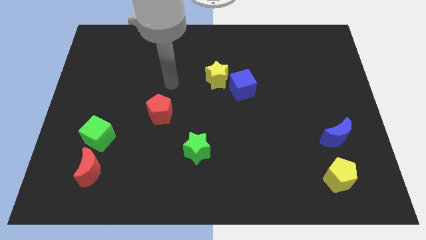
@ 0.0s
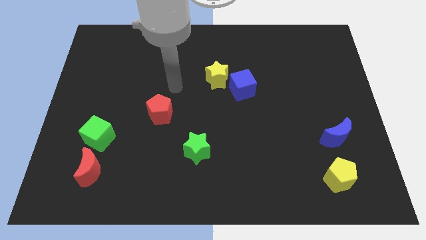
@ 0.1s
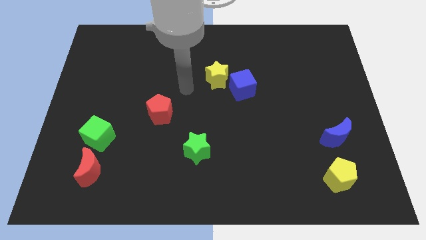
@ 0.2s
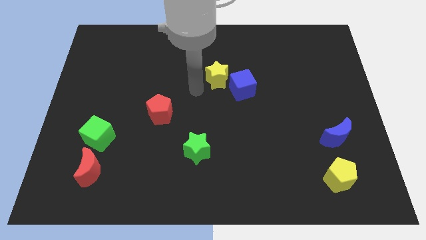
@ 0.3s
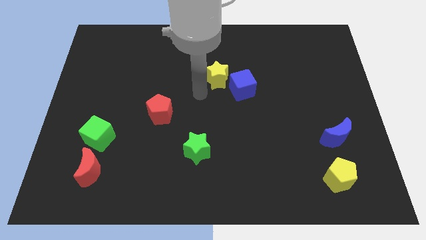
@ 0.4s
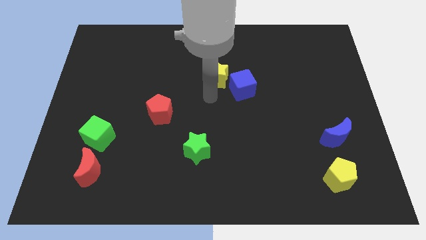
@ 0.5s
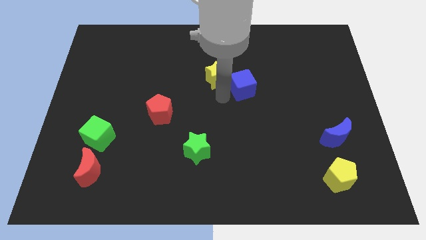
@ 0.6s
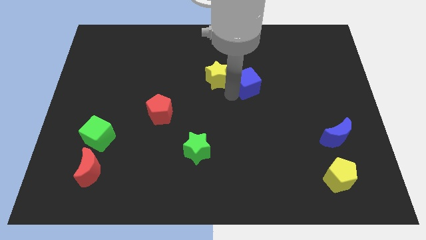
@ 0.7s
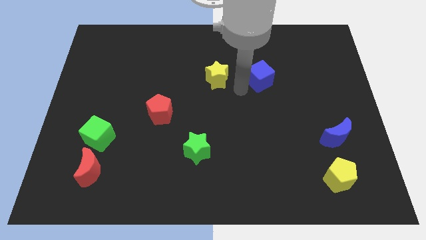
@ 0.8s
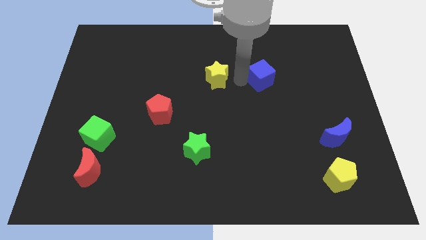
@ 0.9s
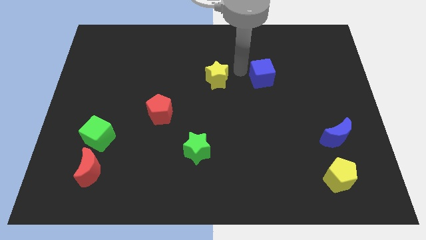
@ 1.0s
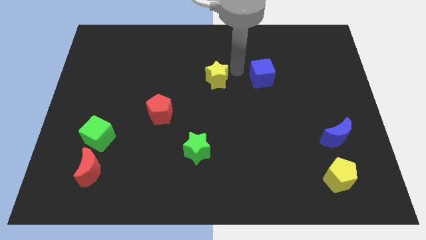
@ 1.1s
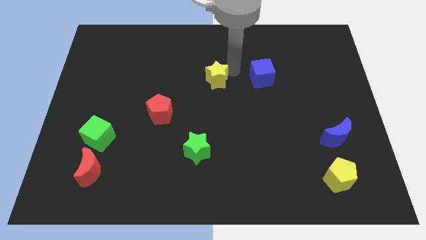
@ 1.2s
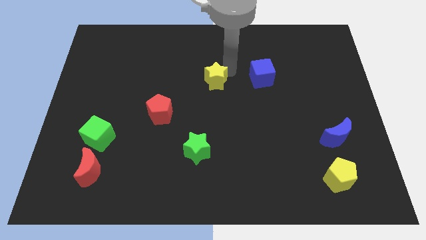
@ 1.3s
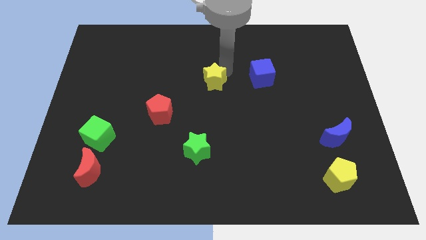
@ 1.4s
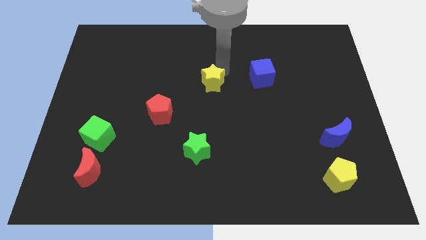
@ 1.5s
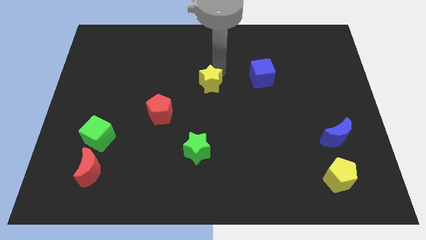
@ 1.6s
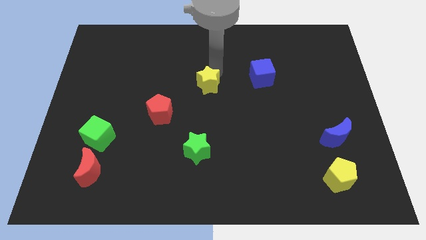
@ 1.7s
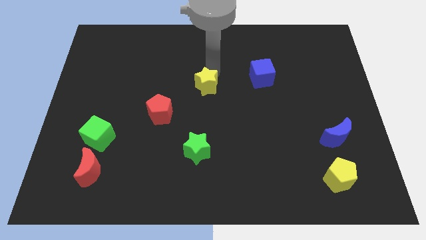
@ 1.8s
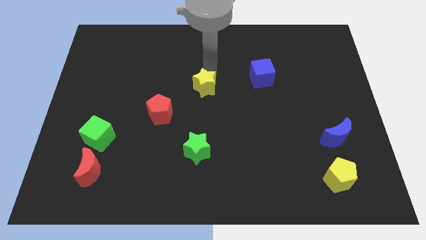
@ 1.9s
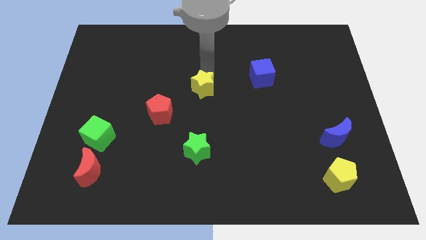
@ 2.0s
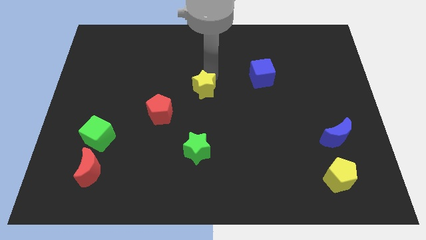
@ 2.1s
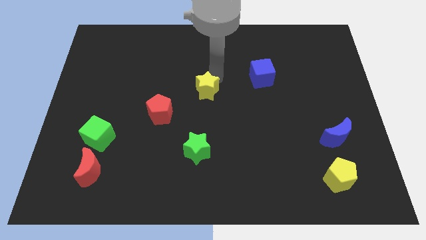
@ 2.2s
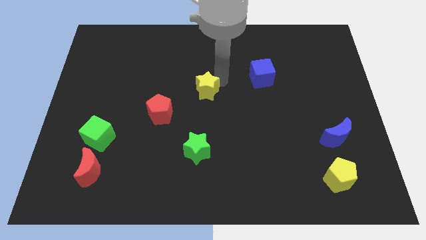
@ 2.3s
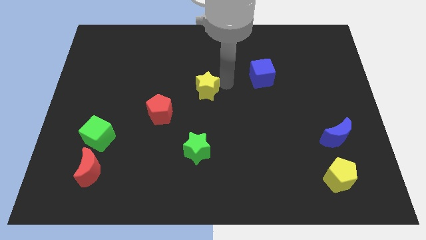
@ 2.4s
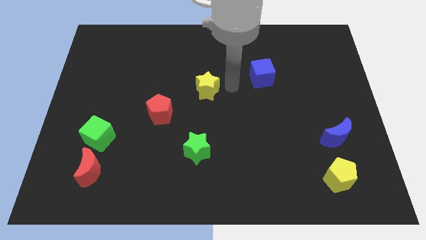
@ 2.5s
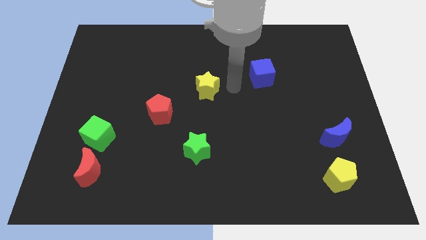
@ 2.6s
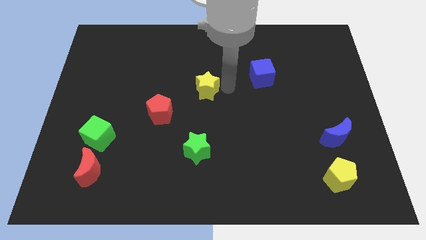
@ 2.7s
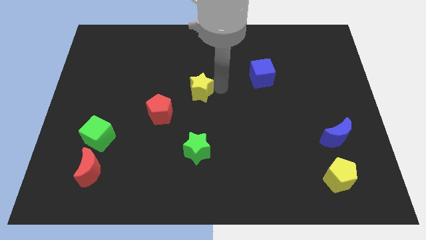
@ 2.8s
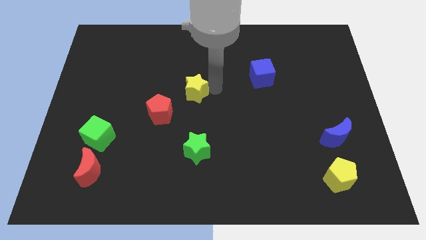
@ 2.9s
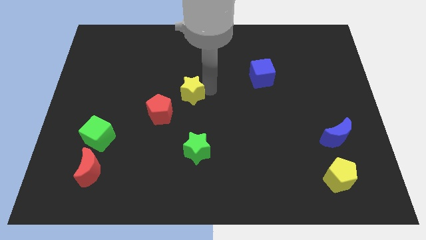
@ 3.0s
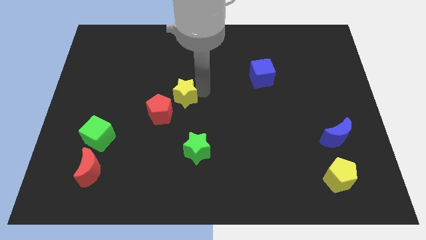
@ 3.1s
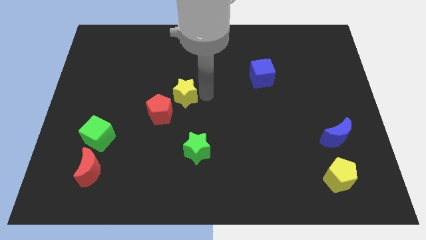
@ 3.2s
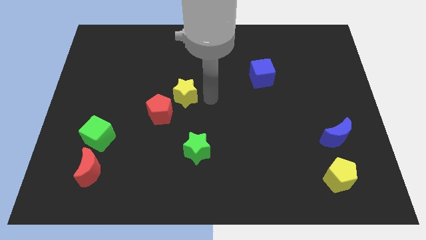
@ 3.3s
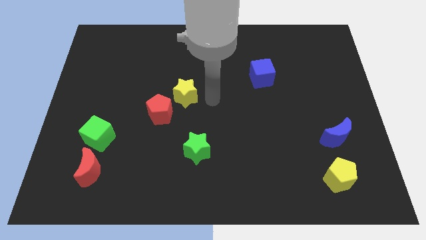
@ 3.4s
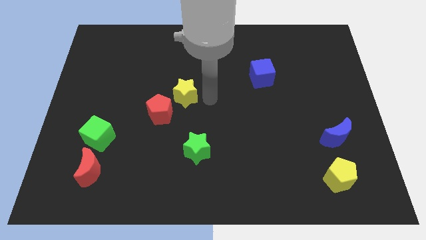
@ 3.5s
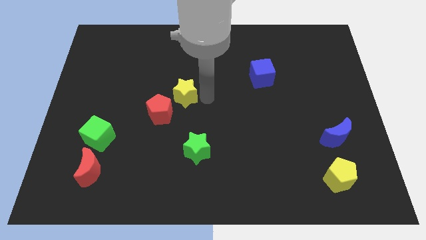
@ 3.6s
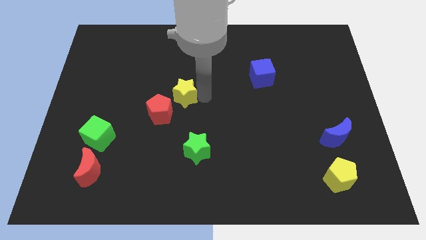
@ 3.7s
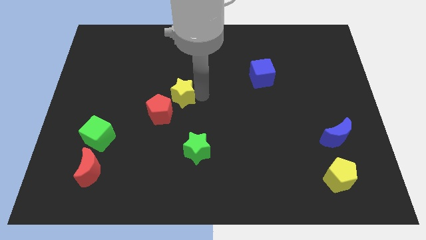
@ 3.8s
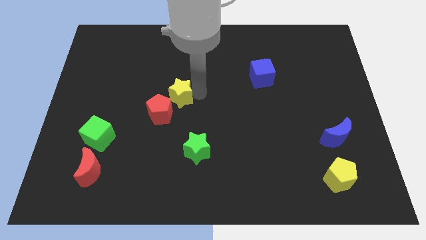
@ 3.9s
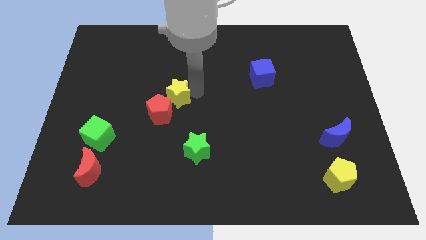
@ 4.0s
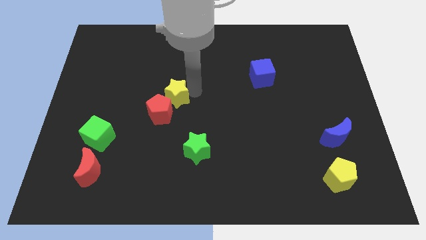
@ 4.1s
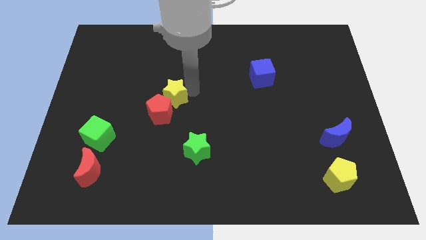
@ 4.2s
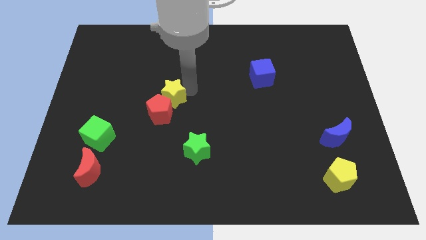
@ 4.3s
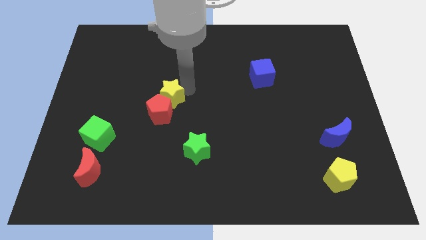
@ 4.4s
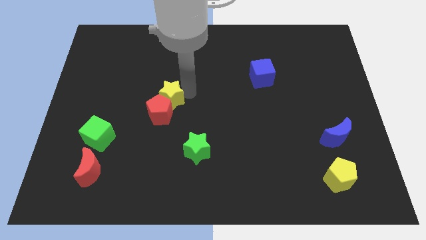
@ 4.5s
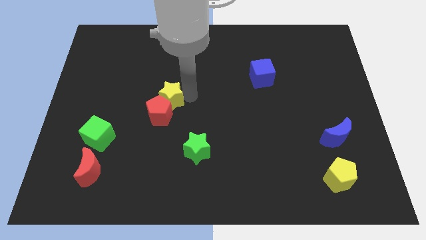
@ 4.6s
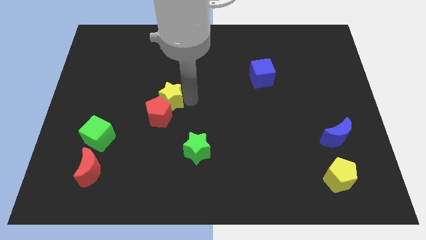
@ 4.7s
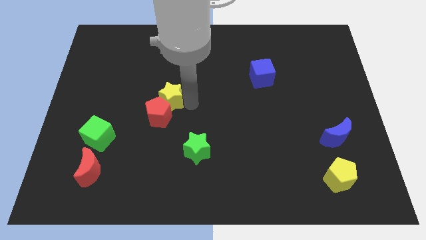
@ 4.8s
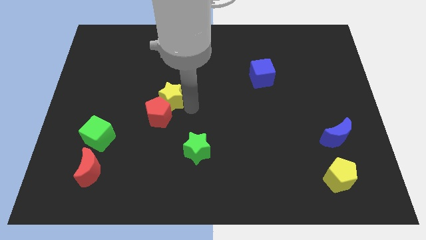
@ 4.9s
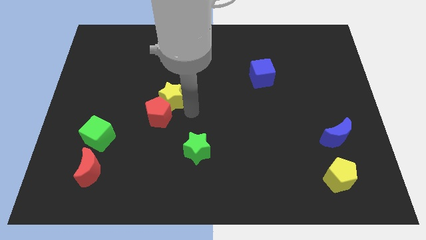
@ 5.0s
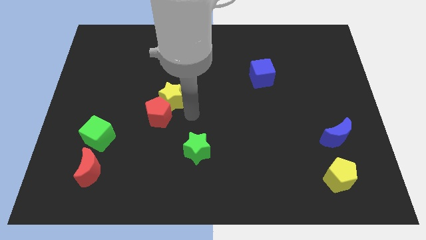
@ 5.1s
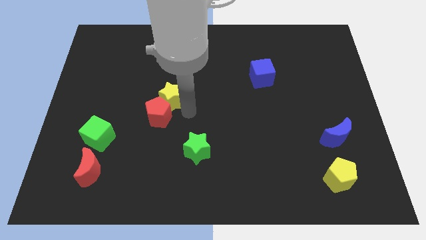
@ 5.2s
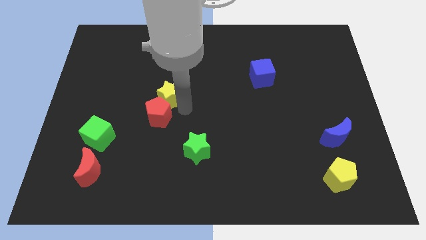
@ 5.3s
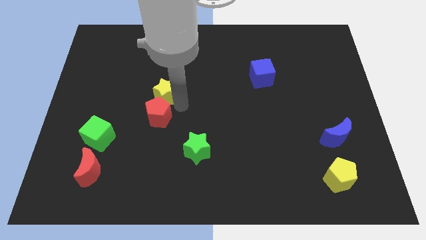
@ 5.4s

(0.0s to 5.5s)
push the yellow star to the top left side of the red pentagon
